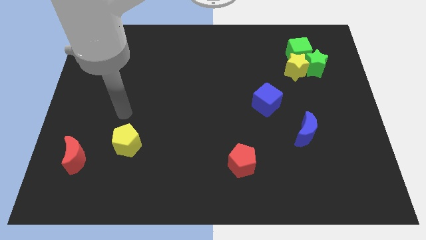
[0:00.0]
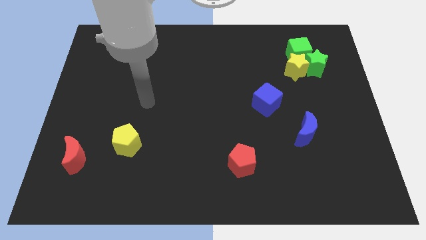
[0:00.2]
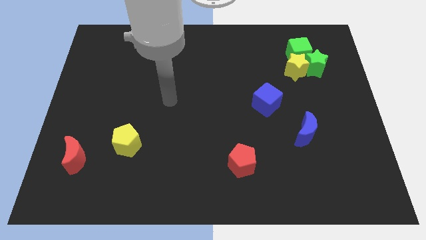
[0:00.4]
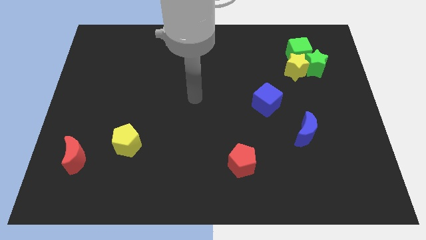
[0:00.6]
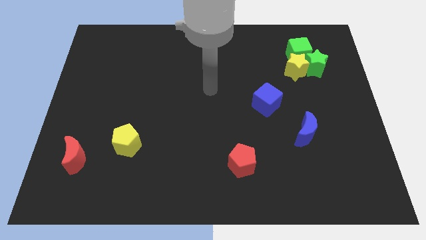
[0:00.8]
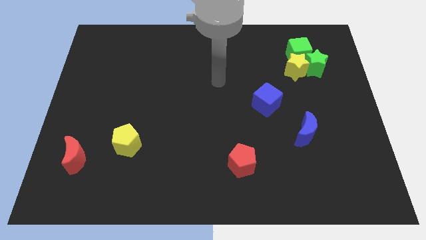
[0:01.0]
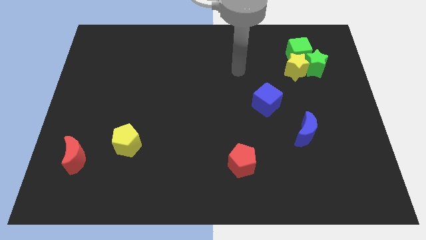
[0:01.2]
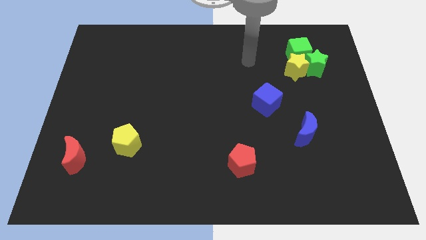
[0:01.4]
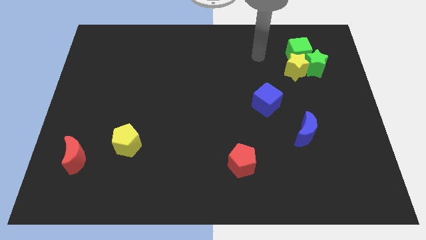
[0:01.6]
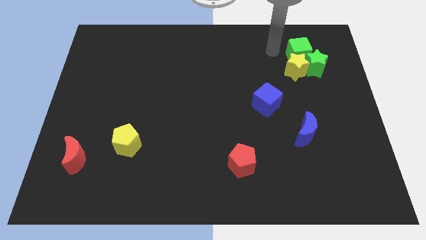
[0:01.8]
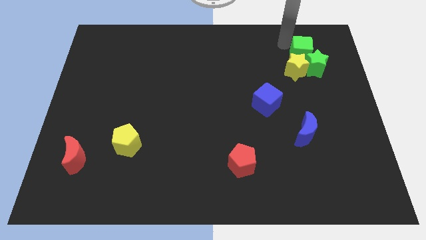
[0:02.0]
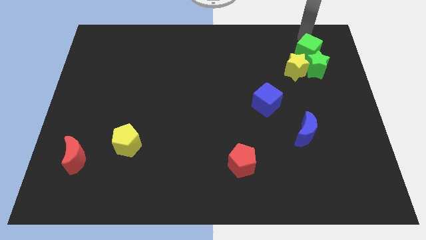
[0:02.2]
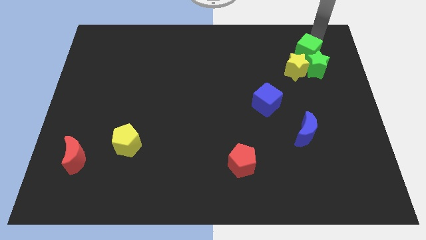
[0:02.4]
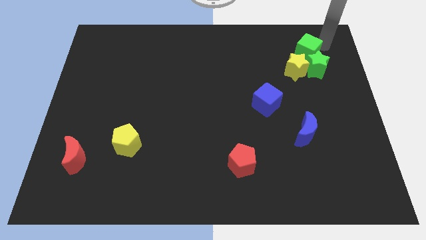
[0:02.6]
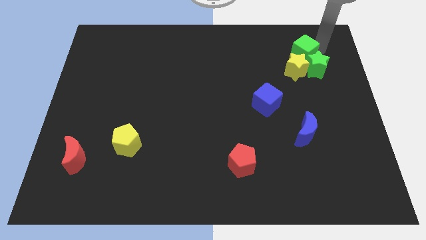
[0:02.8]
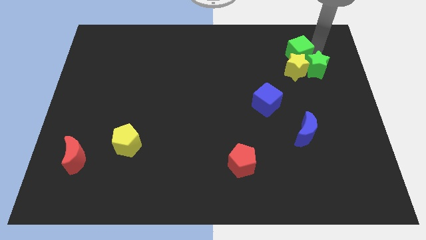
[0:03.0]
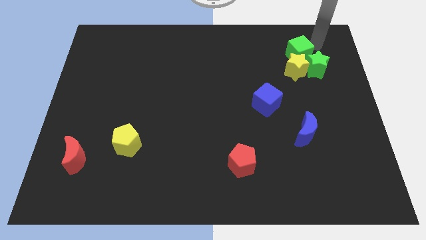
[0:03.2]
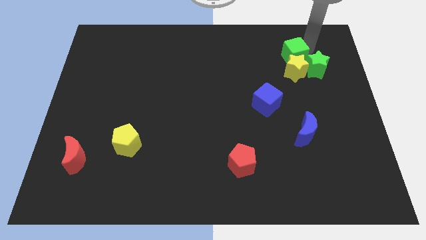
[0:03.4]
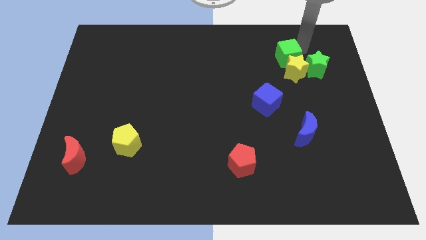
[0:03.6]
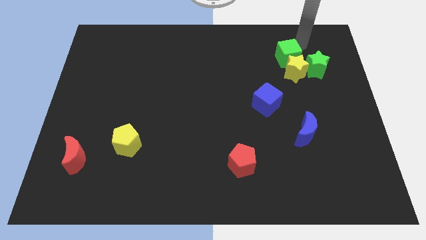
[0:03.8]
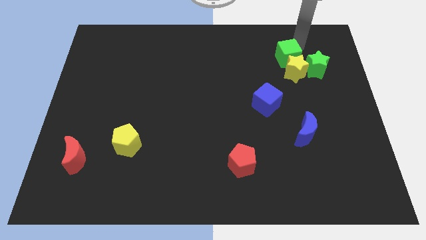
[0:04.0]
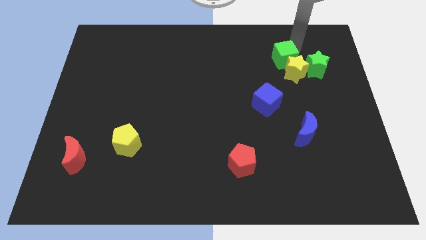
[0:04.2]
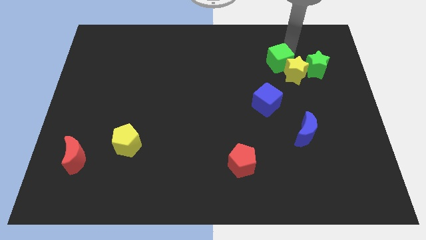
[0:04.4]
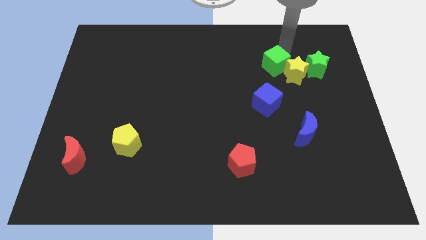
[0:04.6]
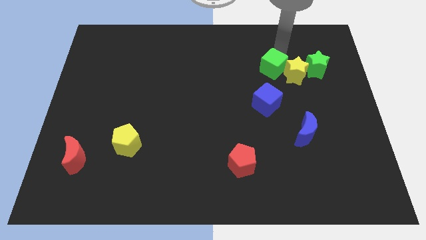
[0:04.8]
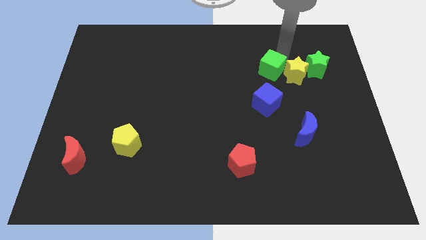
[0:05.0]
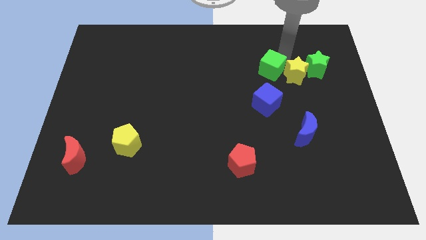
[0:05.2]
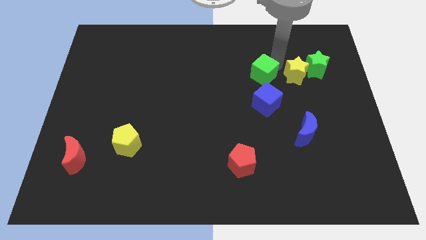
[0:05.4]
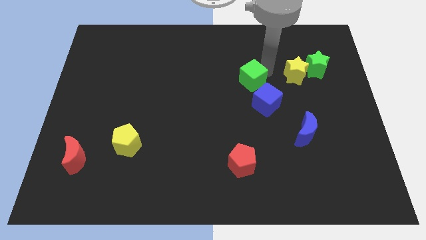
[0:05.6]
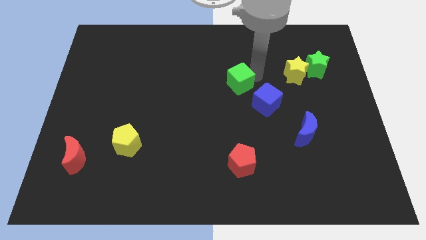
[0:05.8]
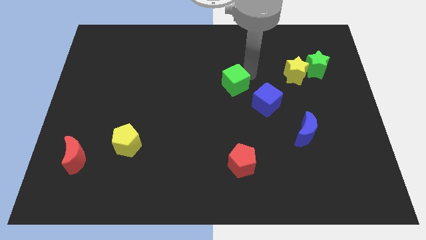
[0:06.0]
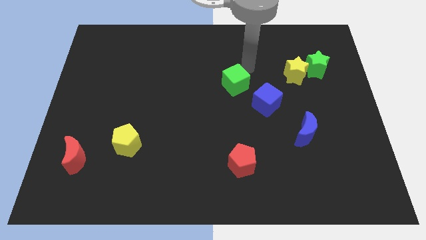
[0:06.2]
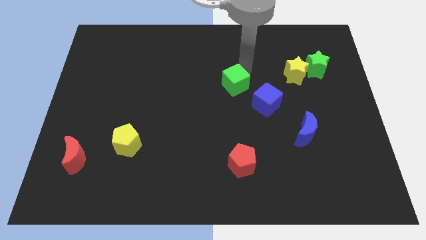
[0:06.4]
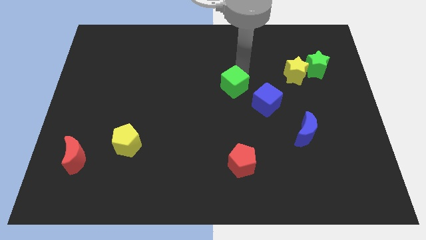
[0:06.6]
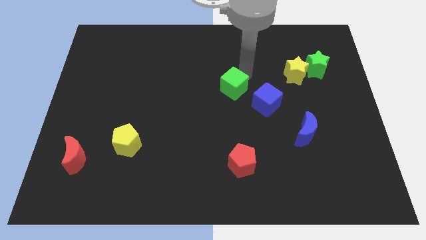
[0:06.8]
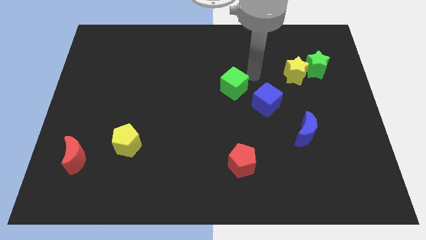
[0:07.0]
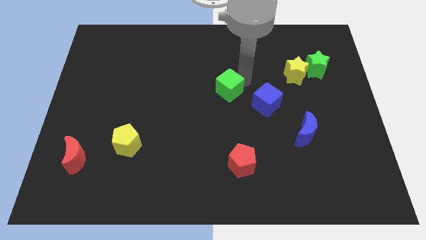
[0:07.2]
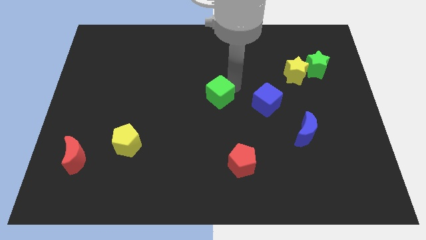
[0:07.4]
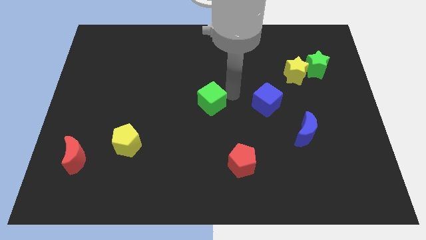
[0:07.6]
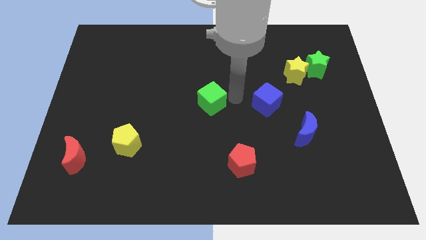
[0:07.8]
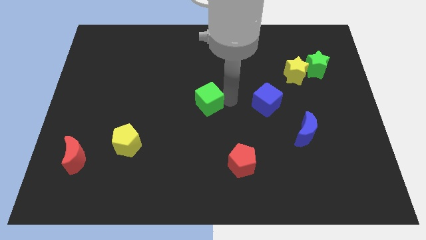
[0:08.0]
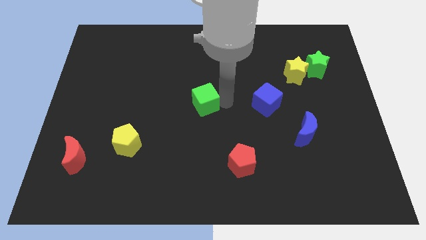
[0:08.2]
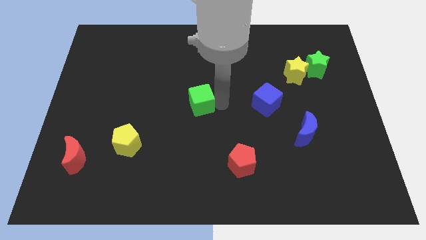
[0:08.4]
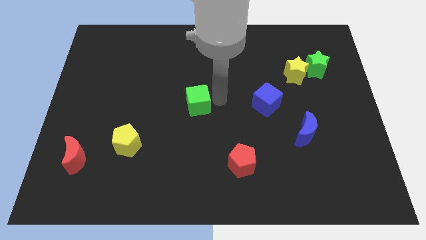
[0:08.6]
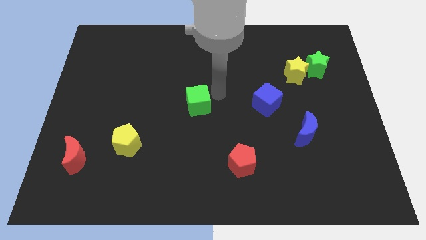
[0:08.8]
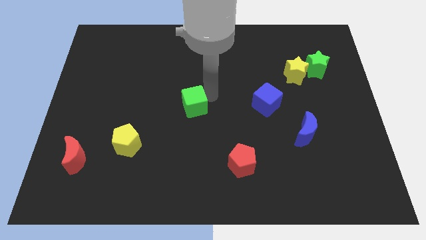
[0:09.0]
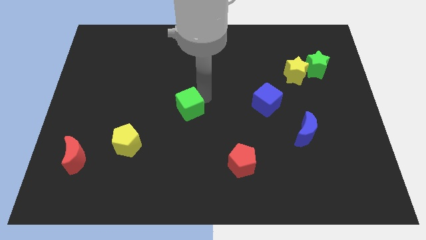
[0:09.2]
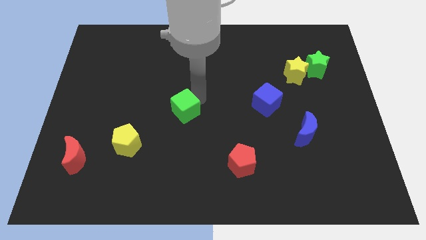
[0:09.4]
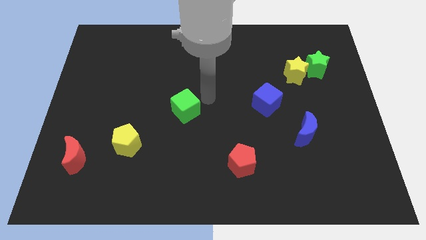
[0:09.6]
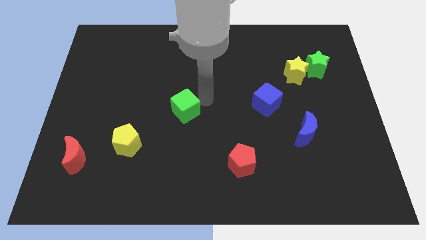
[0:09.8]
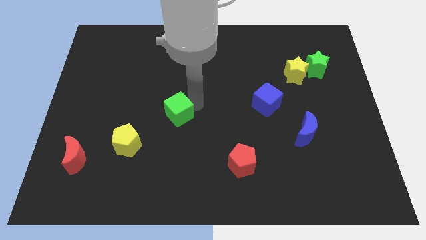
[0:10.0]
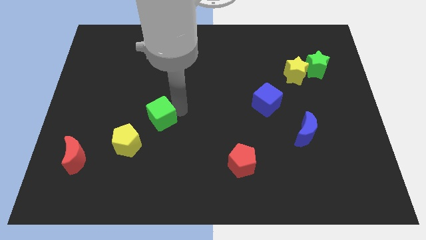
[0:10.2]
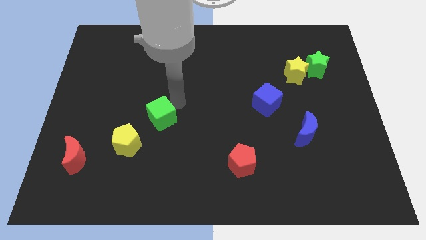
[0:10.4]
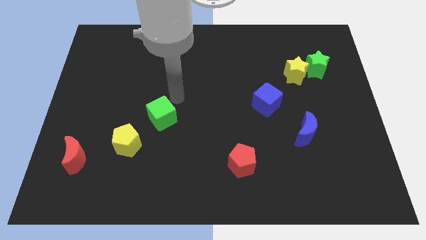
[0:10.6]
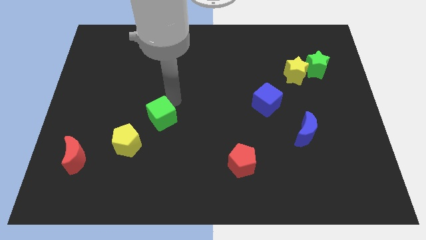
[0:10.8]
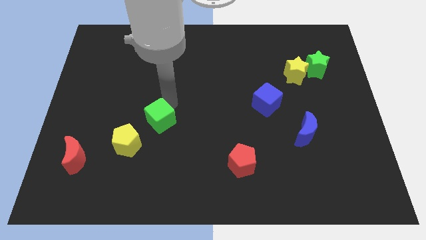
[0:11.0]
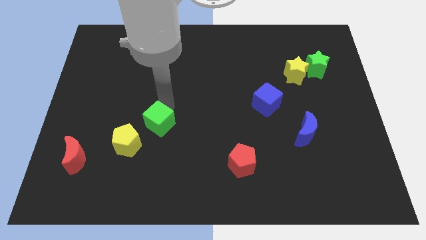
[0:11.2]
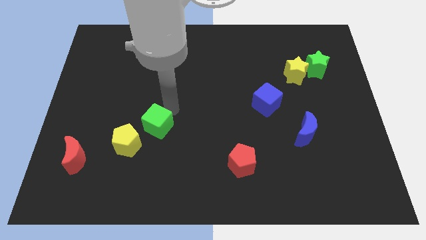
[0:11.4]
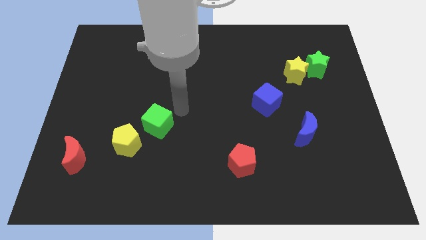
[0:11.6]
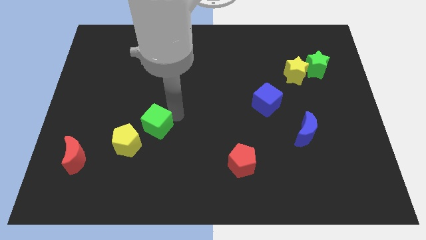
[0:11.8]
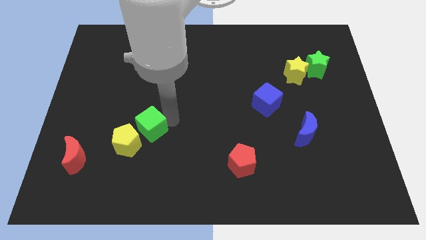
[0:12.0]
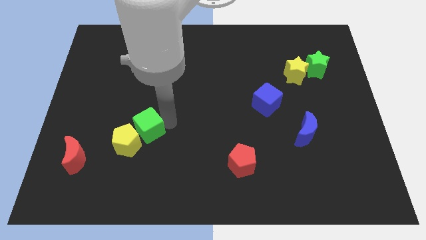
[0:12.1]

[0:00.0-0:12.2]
move the green cube close to the yellow pentagon

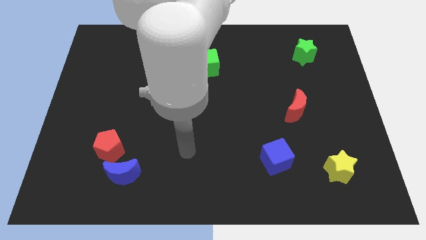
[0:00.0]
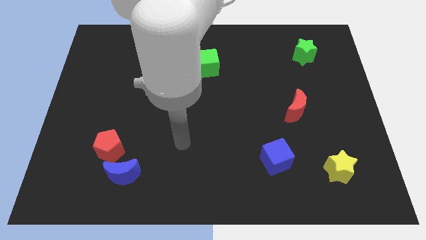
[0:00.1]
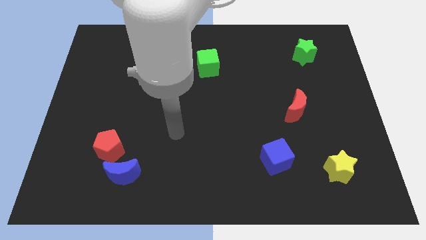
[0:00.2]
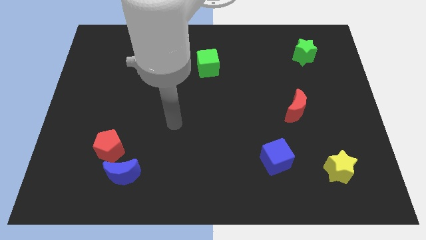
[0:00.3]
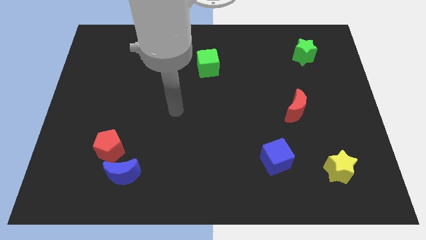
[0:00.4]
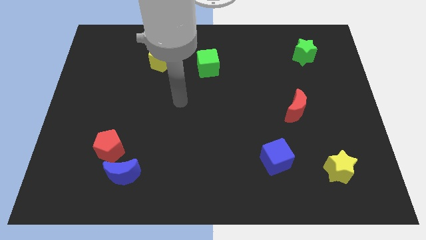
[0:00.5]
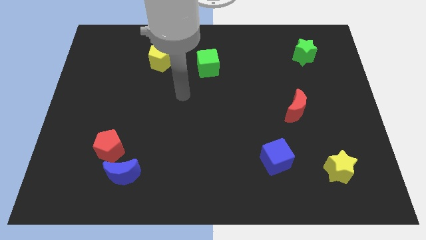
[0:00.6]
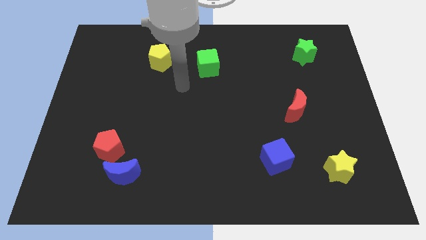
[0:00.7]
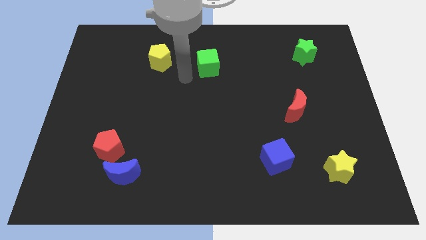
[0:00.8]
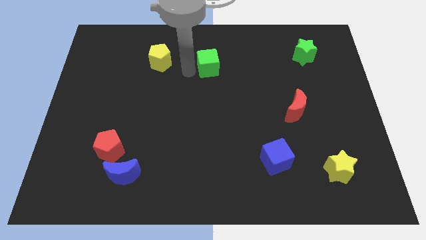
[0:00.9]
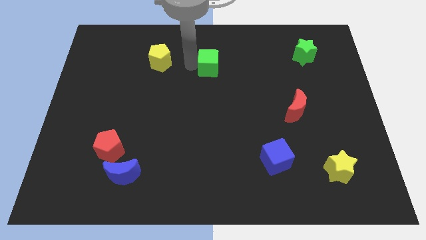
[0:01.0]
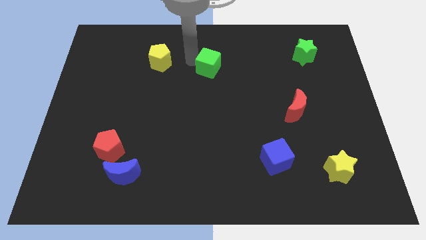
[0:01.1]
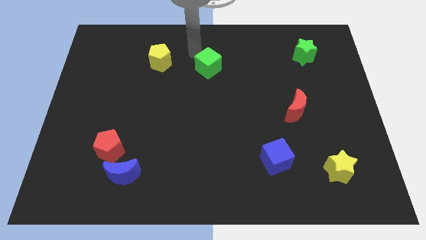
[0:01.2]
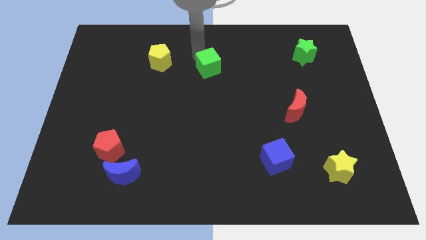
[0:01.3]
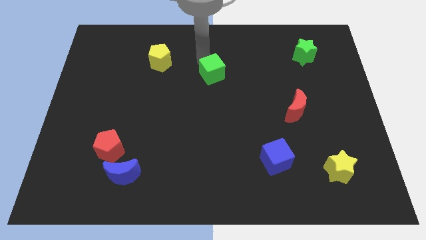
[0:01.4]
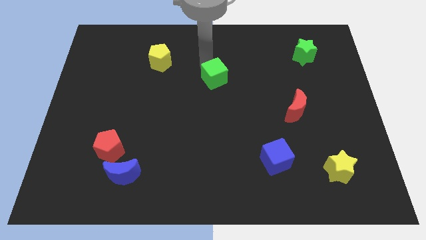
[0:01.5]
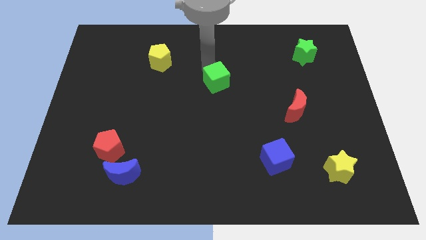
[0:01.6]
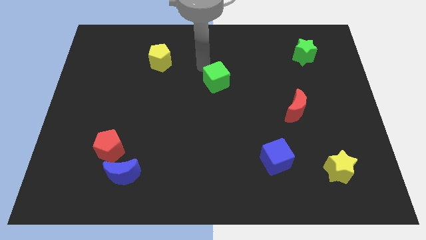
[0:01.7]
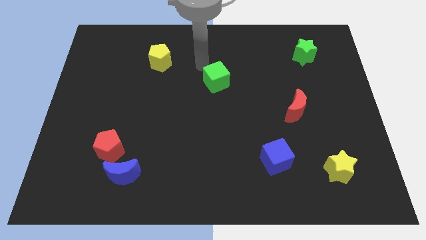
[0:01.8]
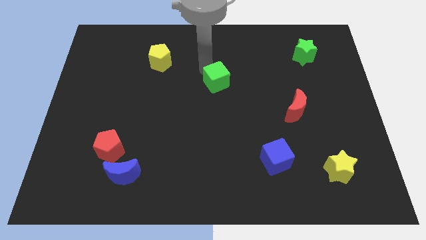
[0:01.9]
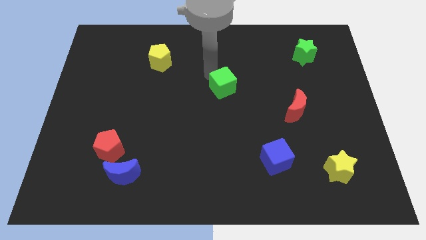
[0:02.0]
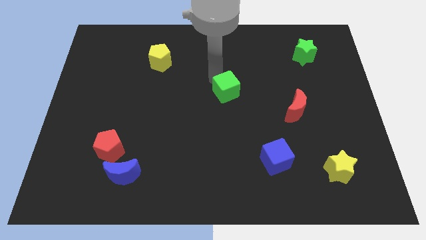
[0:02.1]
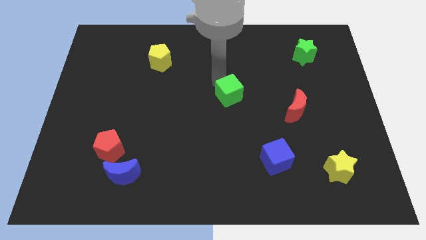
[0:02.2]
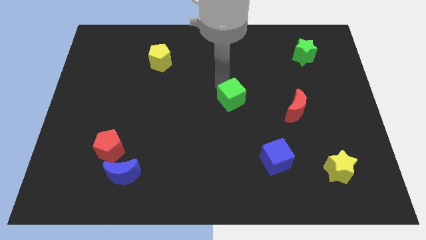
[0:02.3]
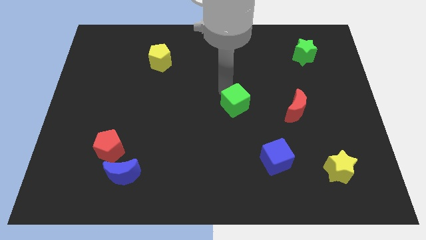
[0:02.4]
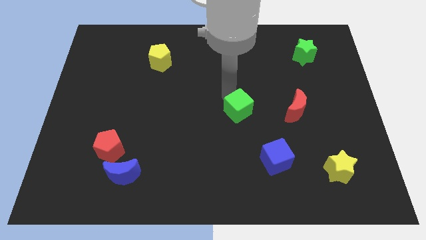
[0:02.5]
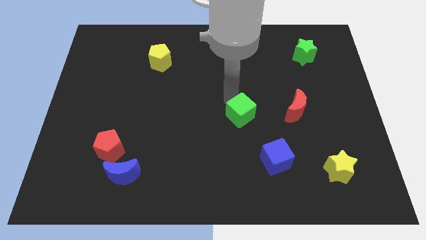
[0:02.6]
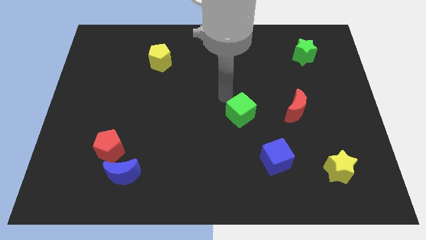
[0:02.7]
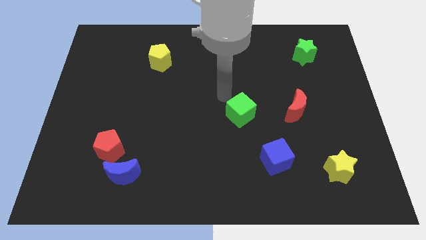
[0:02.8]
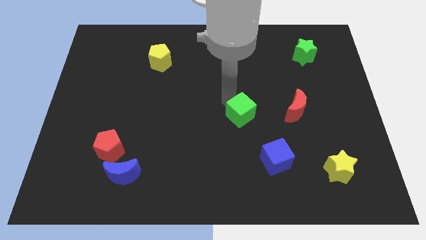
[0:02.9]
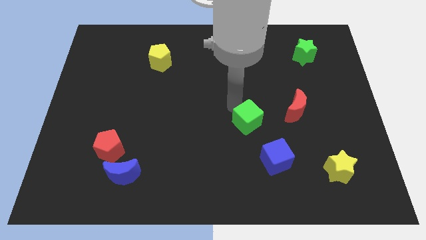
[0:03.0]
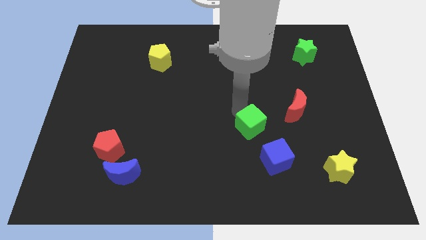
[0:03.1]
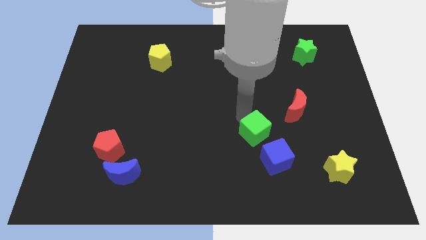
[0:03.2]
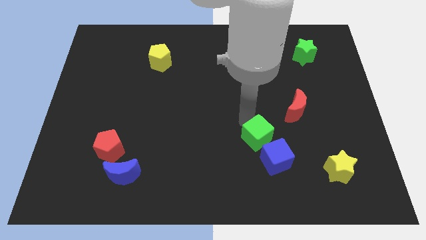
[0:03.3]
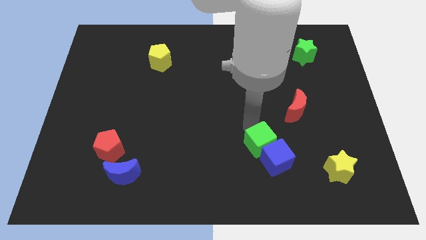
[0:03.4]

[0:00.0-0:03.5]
push the green cube to the blue cube
